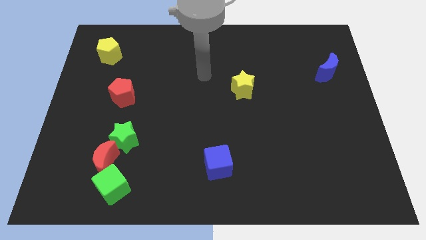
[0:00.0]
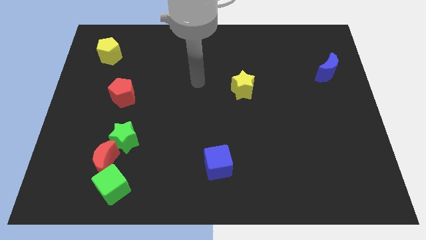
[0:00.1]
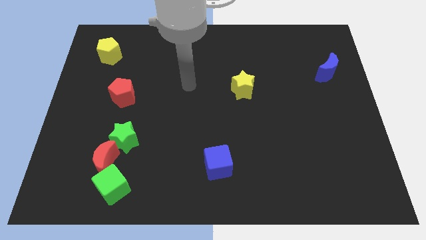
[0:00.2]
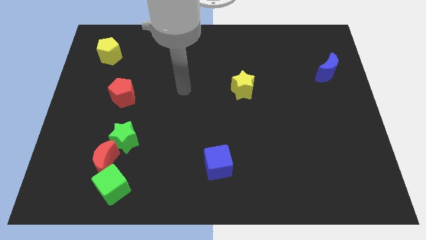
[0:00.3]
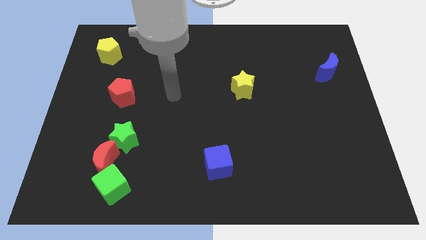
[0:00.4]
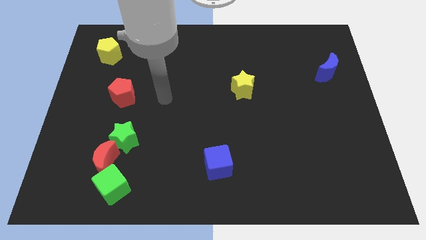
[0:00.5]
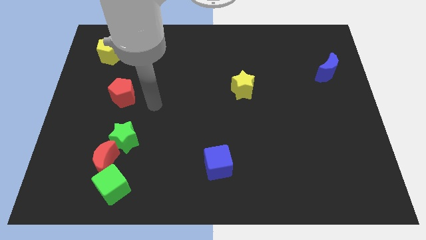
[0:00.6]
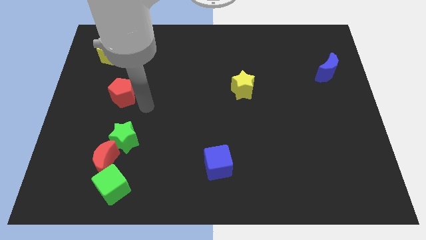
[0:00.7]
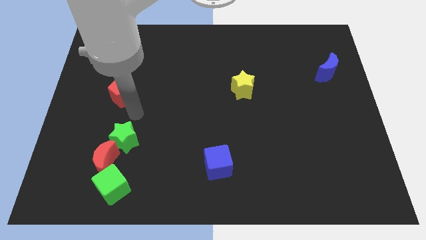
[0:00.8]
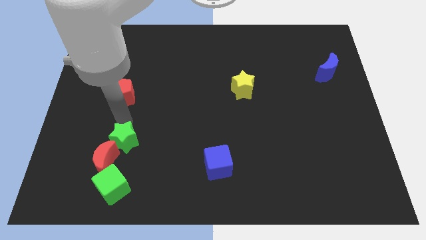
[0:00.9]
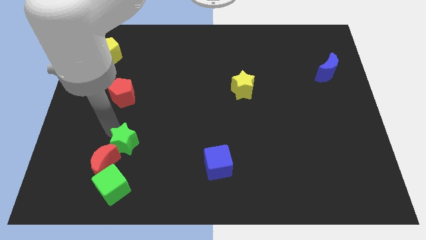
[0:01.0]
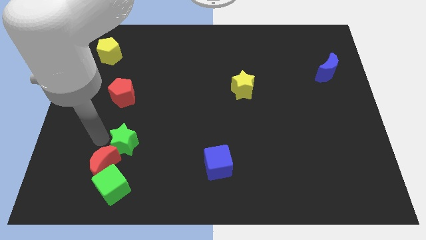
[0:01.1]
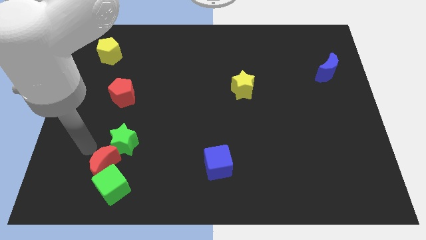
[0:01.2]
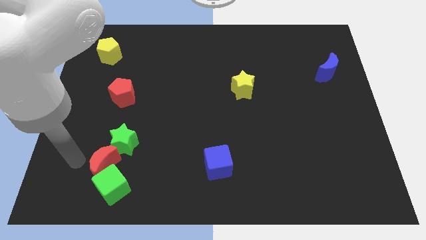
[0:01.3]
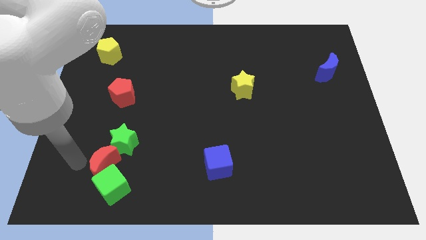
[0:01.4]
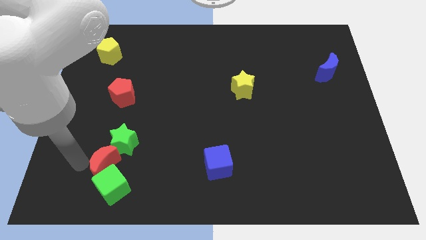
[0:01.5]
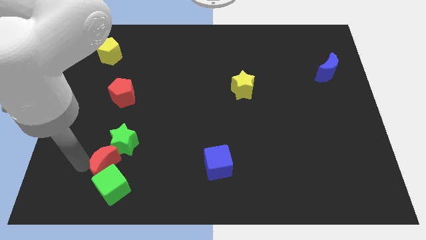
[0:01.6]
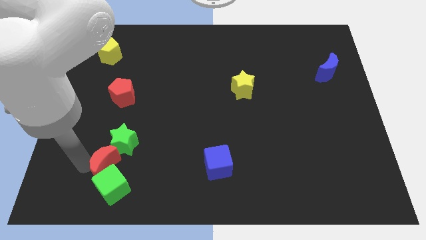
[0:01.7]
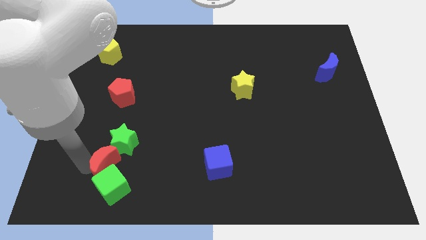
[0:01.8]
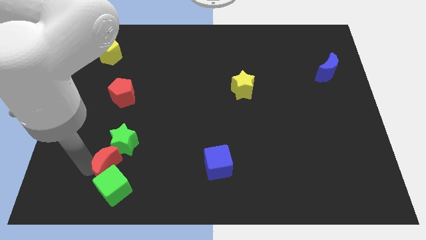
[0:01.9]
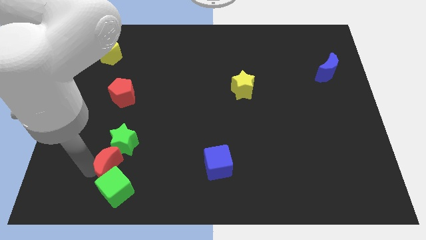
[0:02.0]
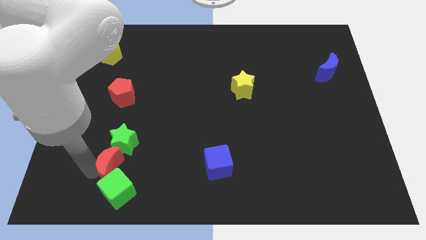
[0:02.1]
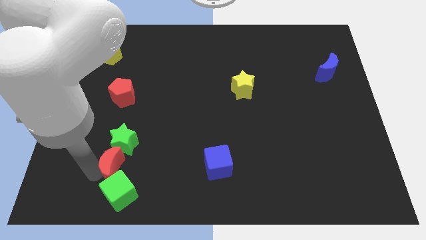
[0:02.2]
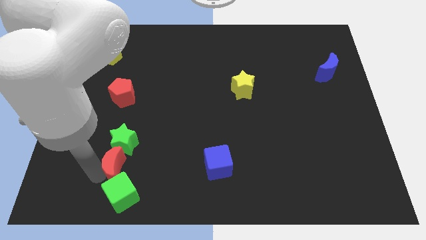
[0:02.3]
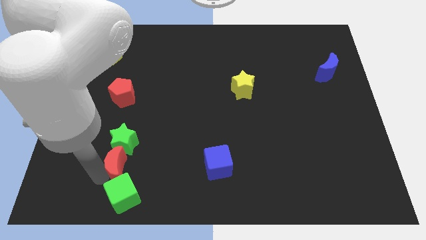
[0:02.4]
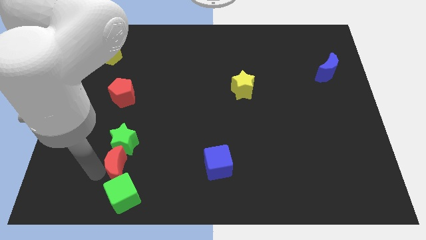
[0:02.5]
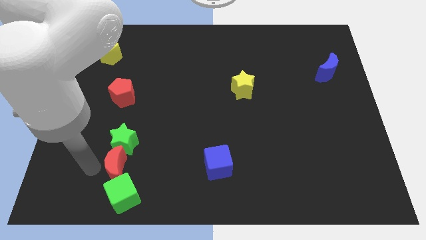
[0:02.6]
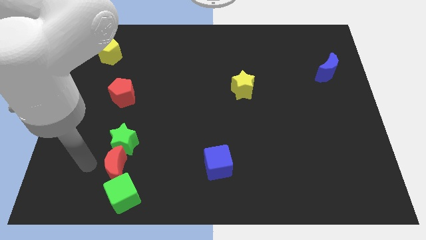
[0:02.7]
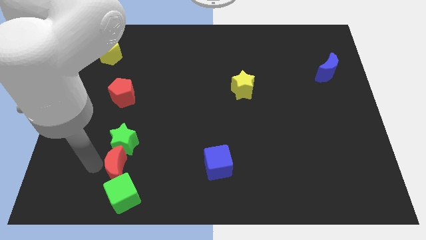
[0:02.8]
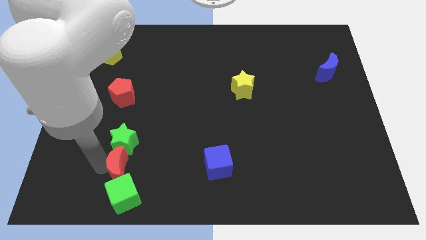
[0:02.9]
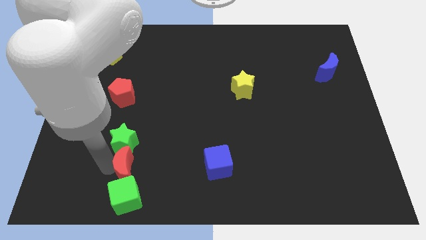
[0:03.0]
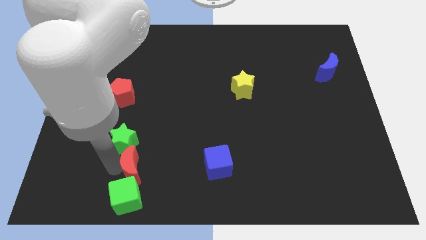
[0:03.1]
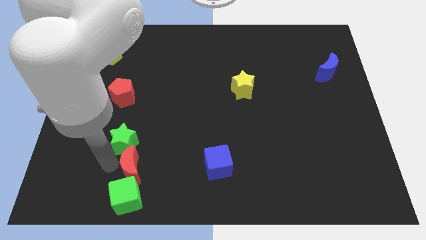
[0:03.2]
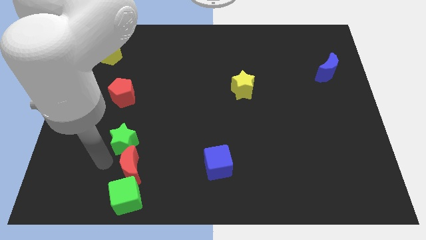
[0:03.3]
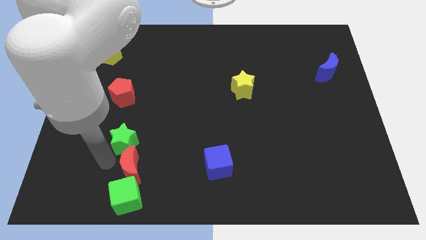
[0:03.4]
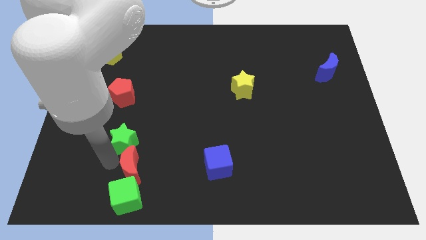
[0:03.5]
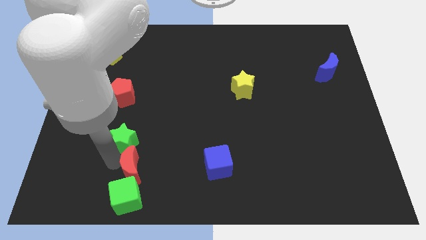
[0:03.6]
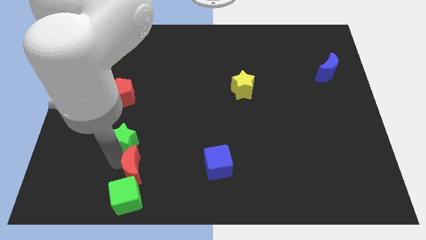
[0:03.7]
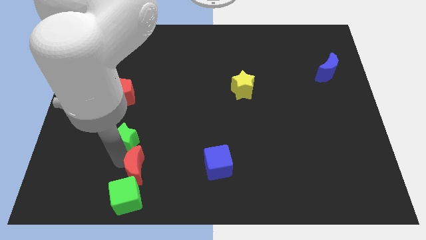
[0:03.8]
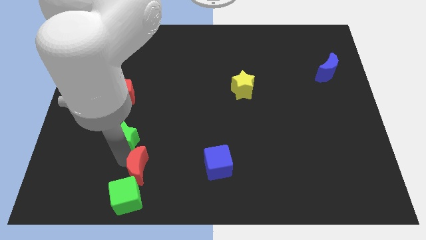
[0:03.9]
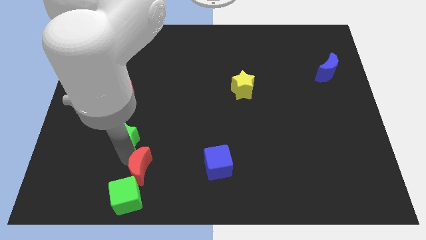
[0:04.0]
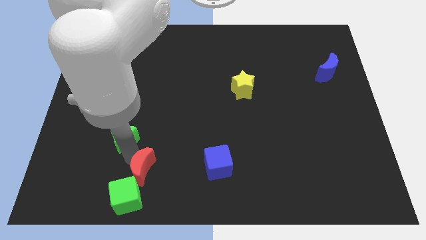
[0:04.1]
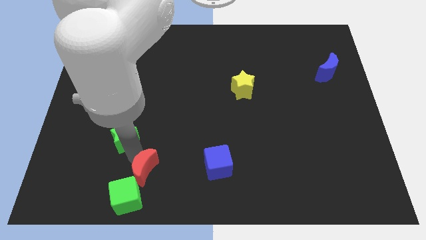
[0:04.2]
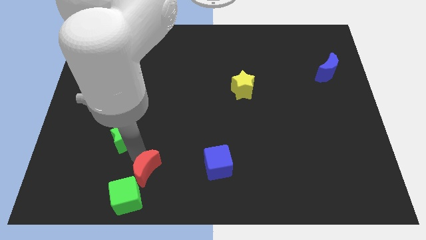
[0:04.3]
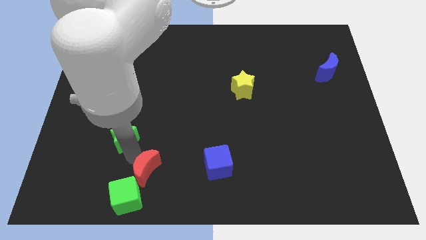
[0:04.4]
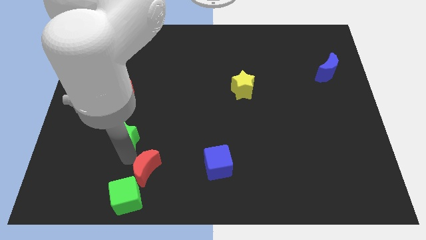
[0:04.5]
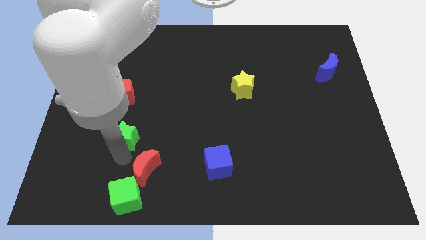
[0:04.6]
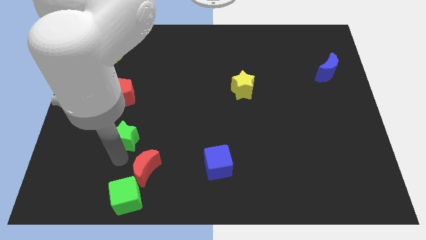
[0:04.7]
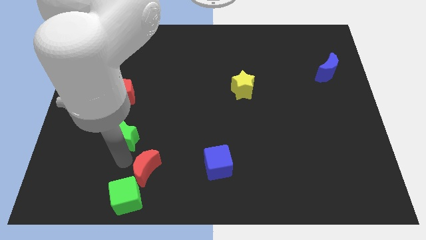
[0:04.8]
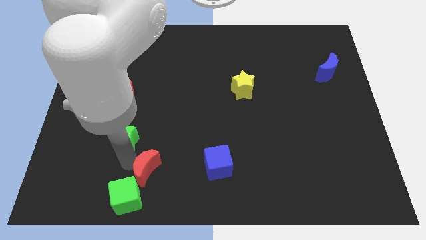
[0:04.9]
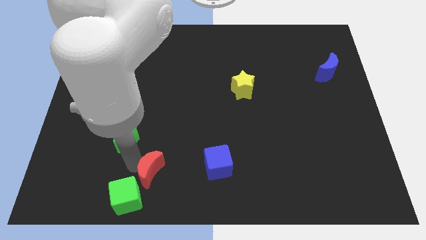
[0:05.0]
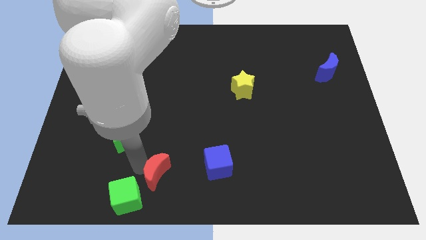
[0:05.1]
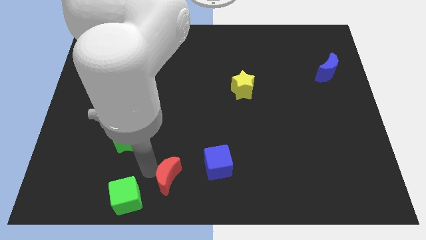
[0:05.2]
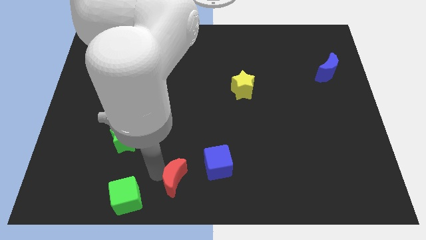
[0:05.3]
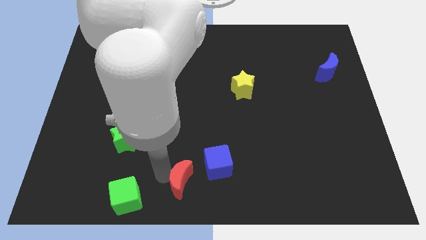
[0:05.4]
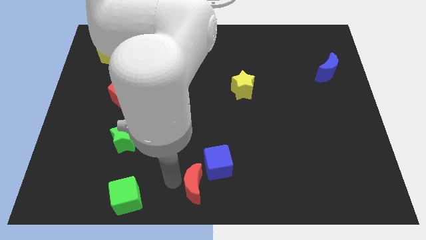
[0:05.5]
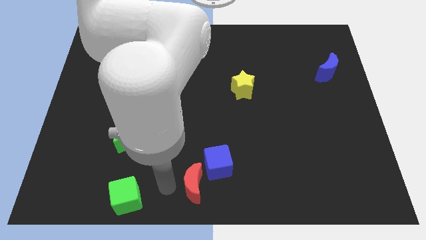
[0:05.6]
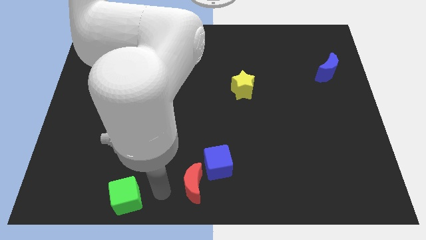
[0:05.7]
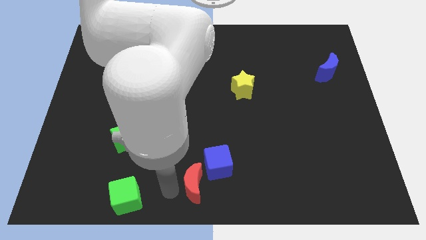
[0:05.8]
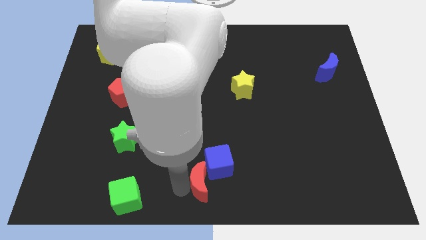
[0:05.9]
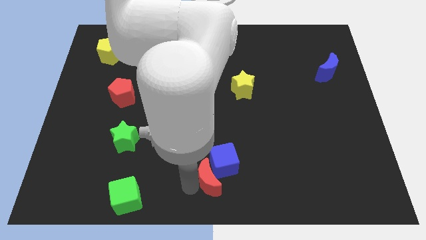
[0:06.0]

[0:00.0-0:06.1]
slide the red moon to the right

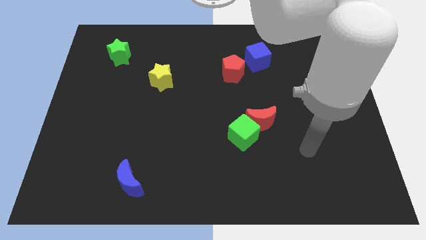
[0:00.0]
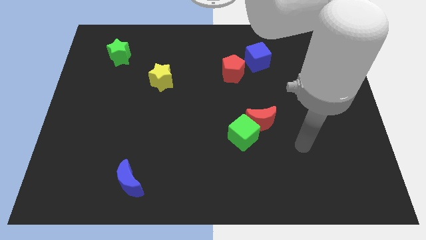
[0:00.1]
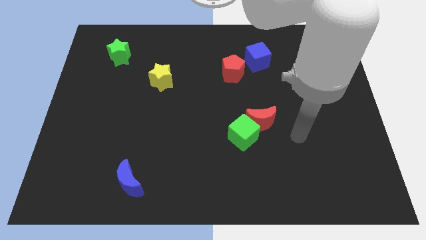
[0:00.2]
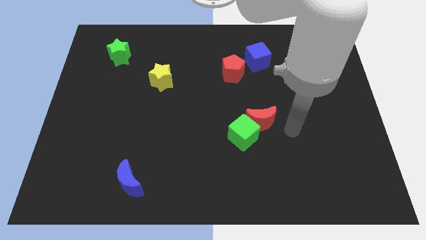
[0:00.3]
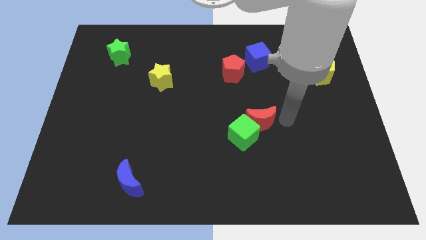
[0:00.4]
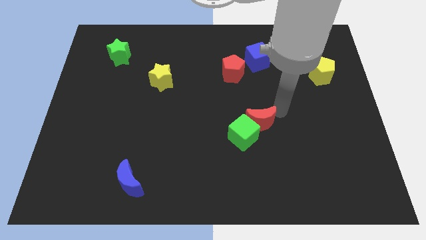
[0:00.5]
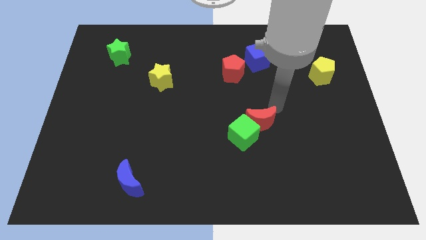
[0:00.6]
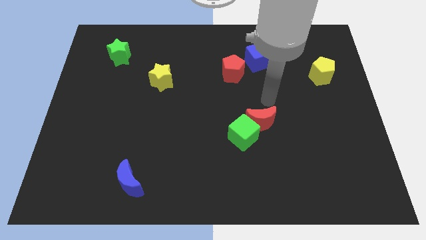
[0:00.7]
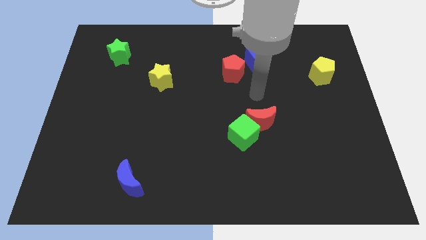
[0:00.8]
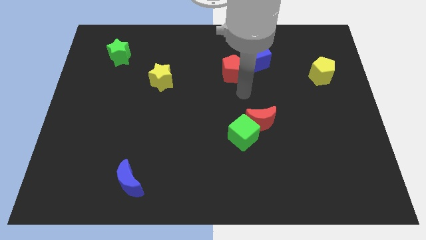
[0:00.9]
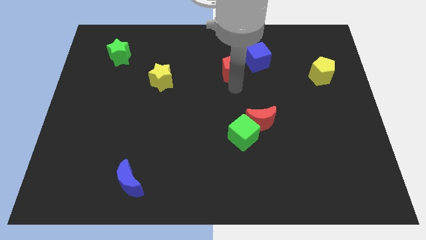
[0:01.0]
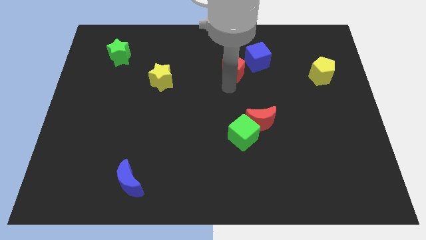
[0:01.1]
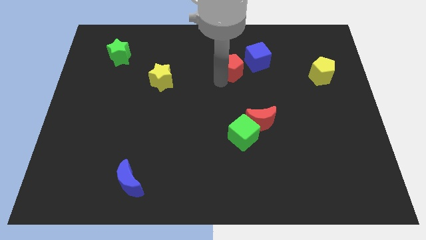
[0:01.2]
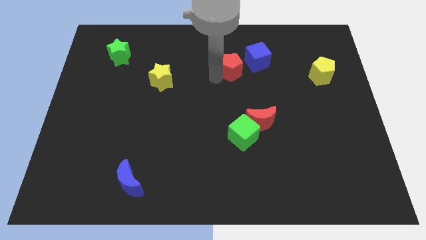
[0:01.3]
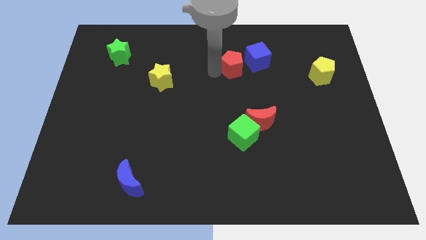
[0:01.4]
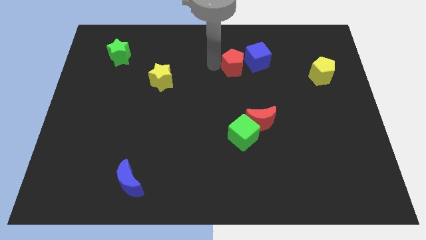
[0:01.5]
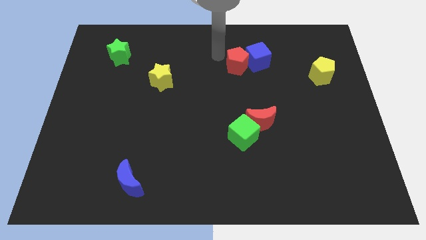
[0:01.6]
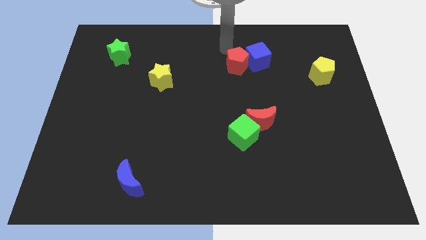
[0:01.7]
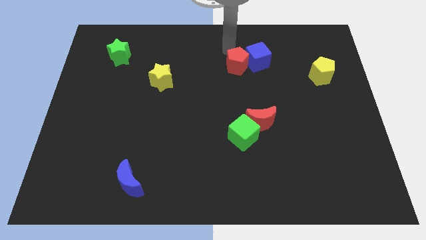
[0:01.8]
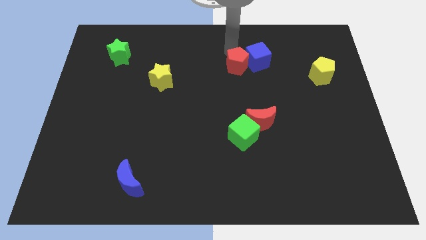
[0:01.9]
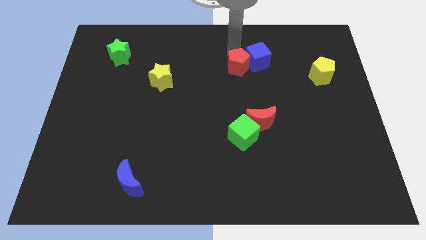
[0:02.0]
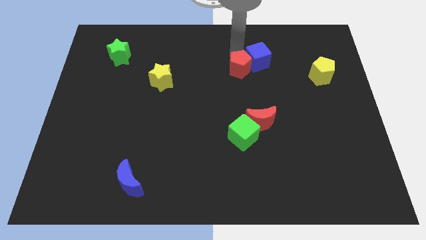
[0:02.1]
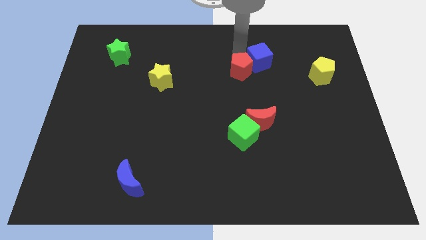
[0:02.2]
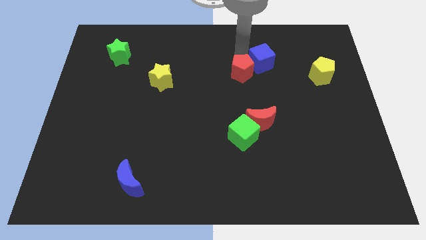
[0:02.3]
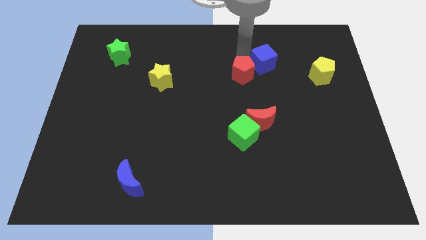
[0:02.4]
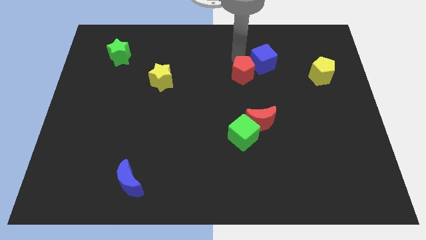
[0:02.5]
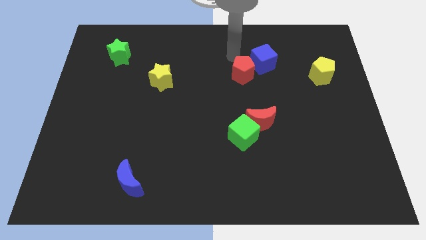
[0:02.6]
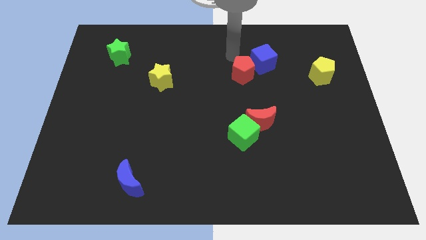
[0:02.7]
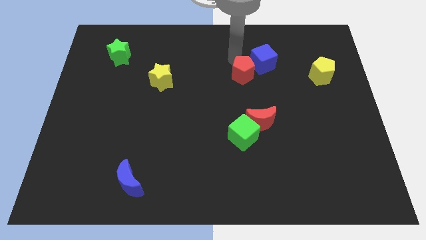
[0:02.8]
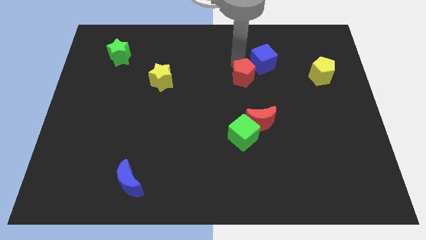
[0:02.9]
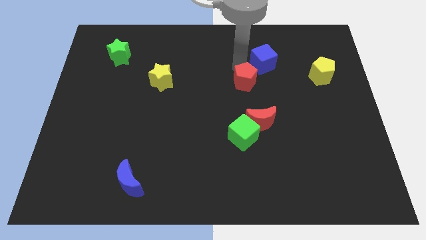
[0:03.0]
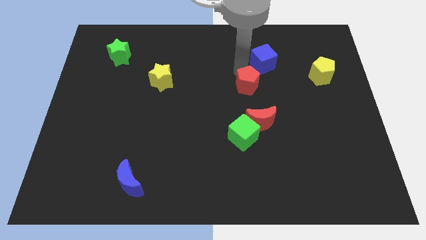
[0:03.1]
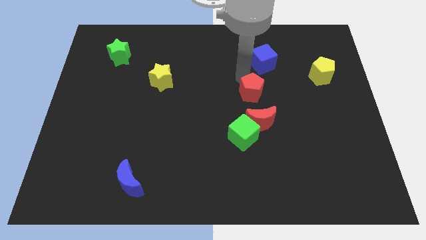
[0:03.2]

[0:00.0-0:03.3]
slide the red pentagon diagonally downwards and to the right a little bit
